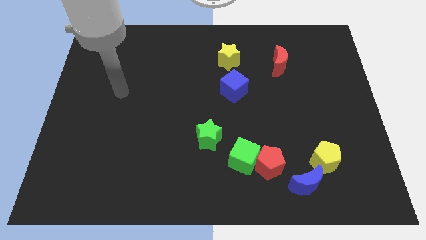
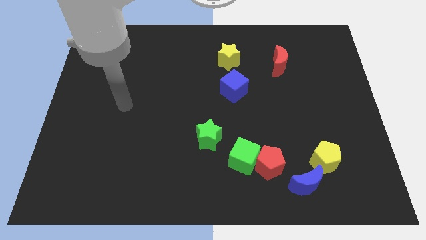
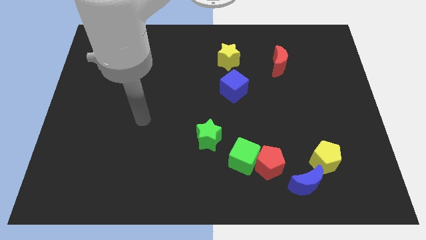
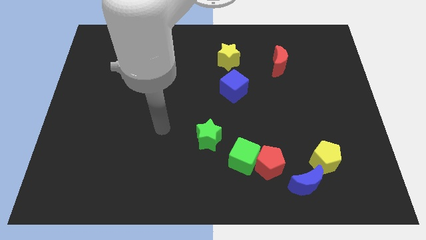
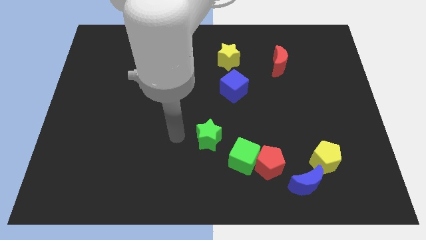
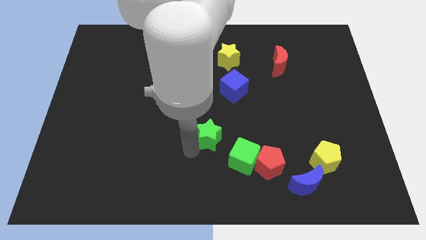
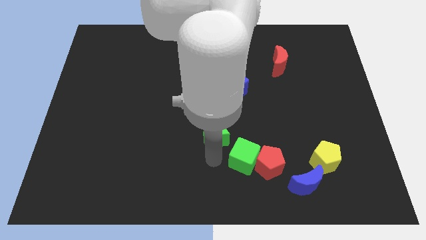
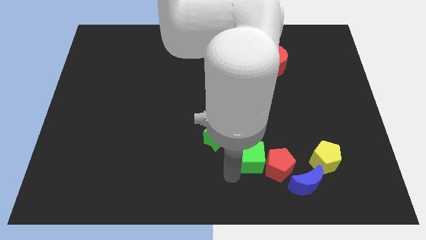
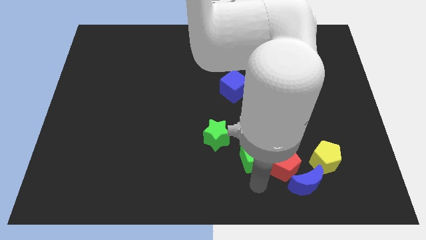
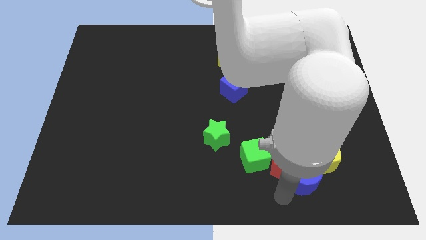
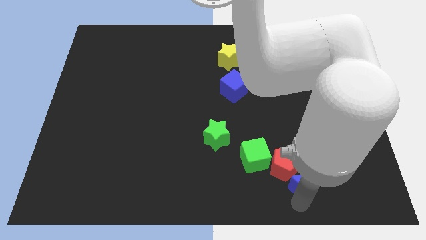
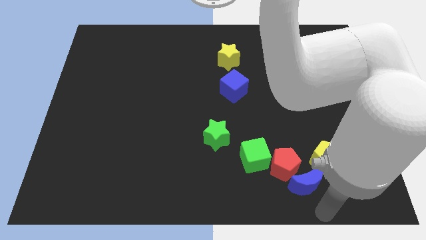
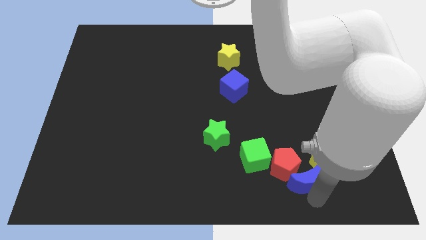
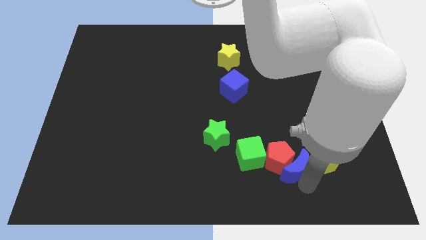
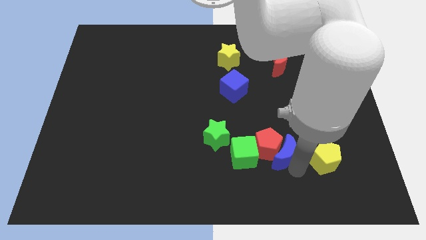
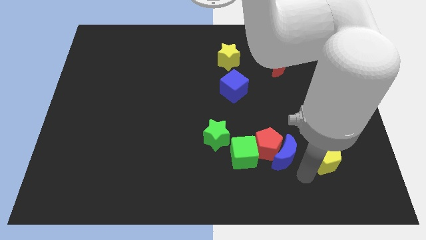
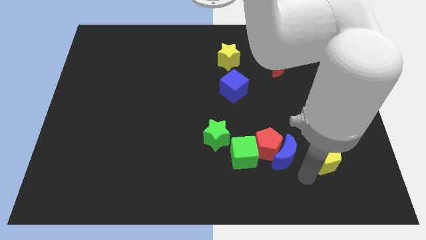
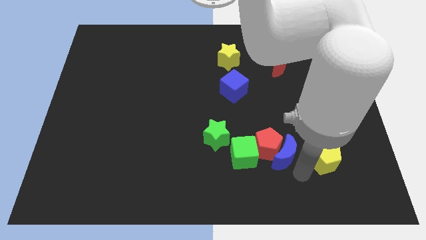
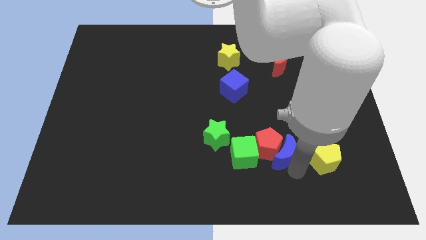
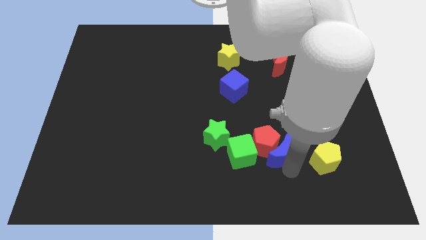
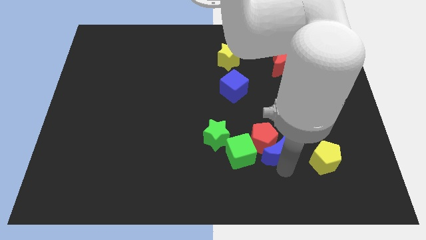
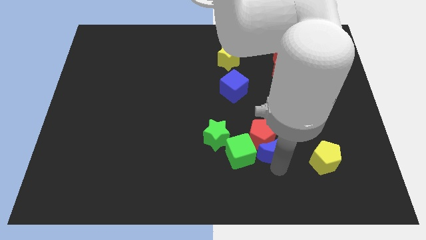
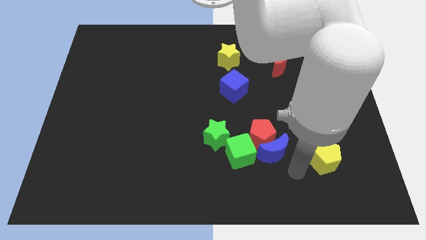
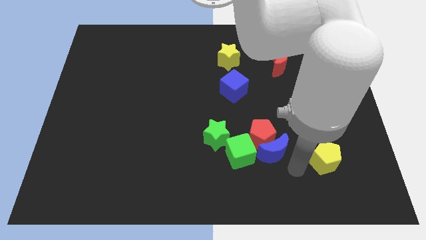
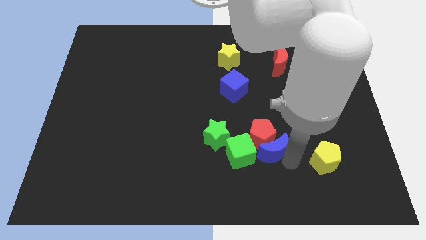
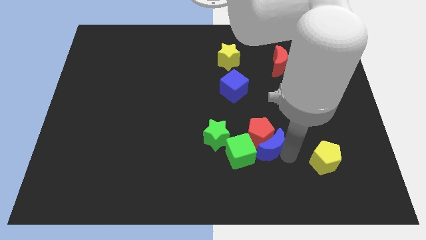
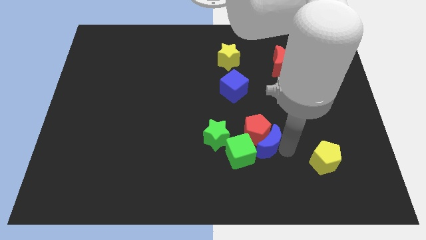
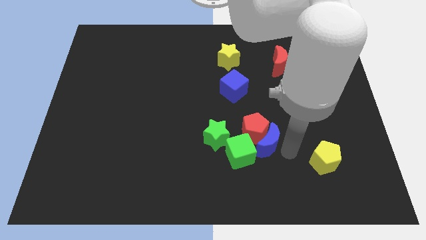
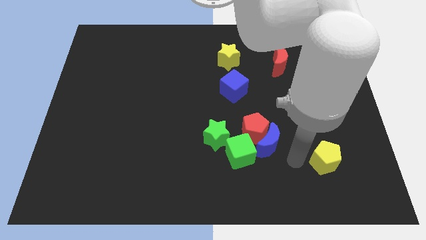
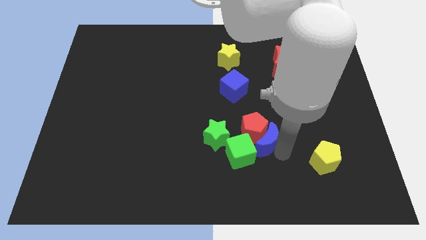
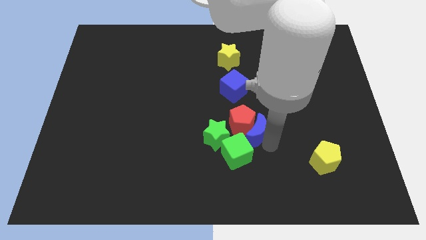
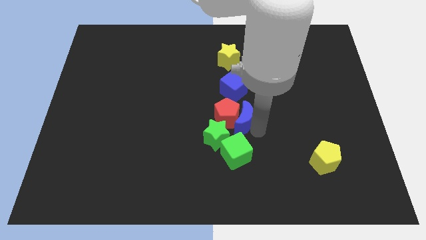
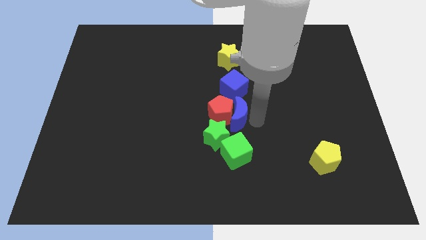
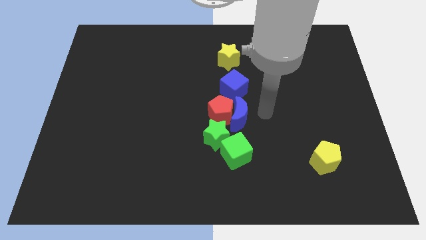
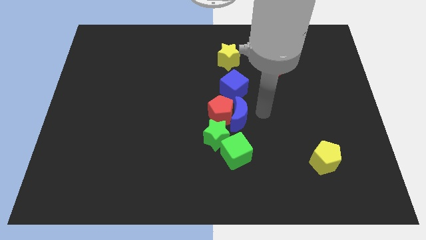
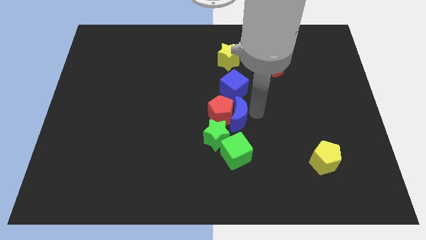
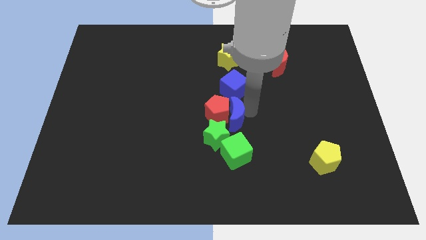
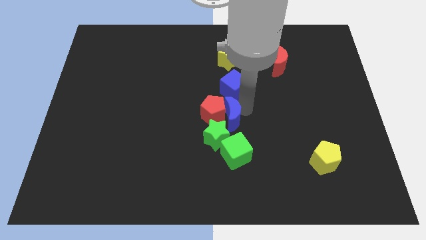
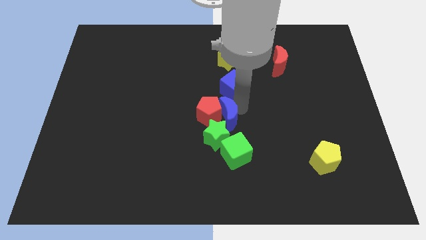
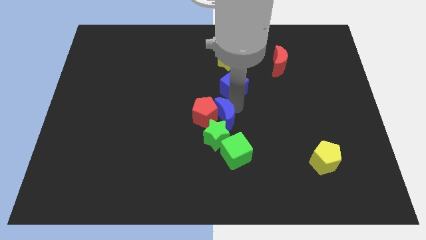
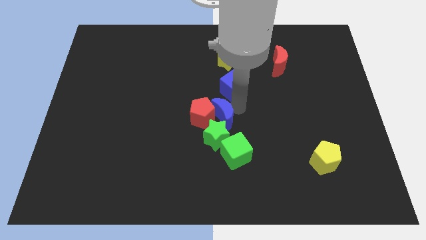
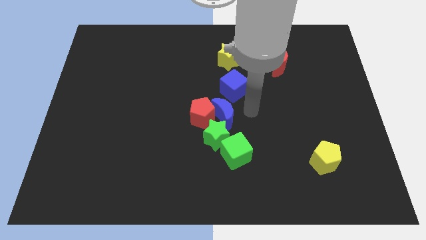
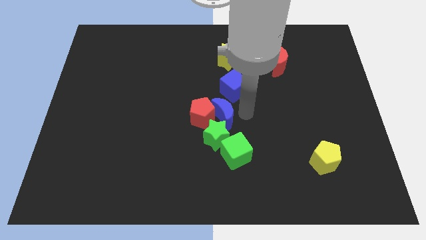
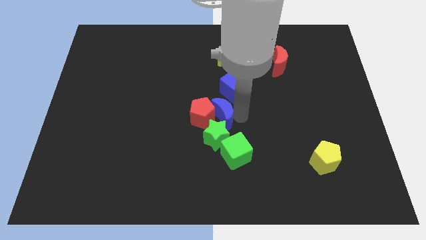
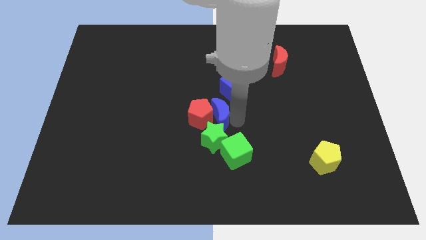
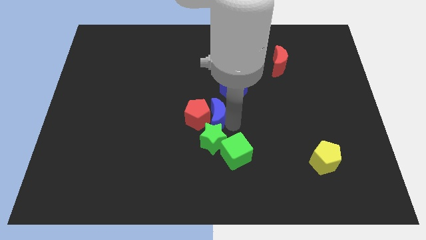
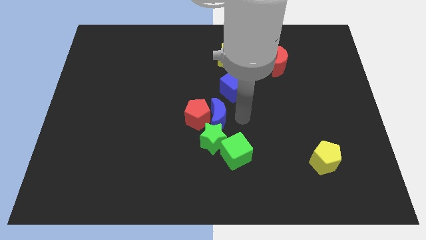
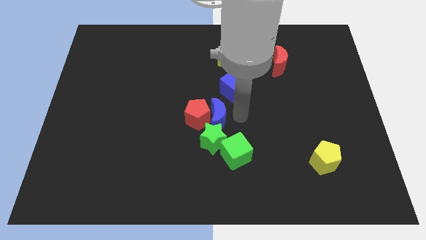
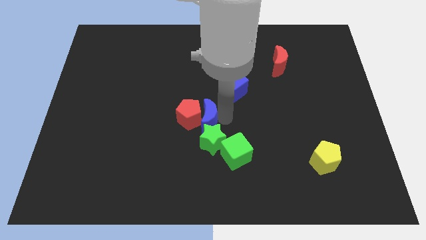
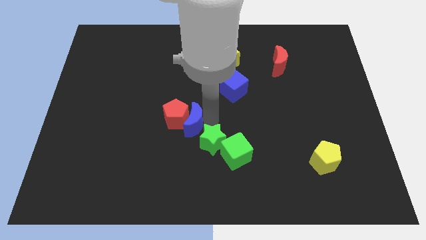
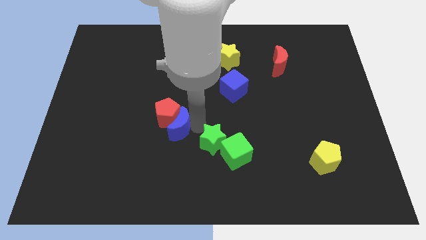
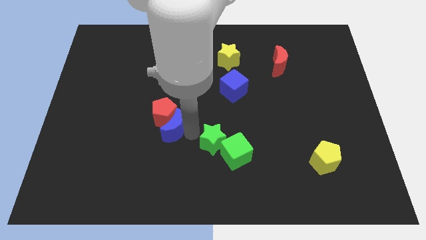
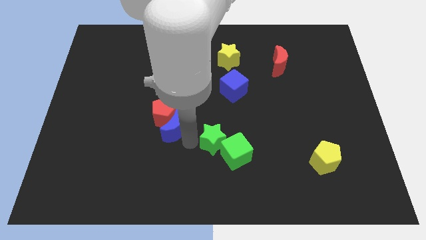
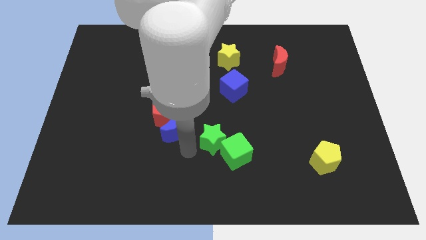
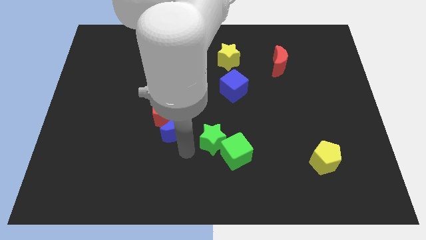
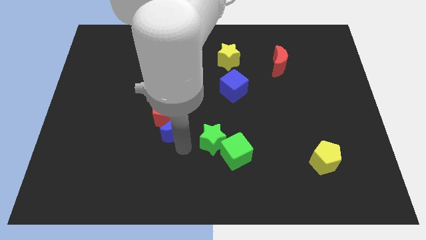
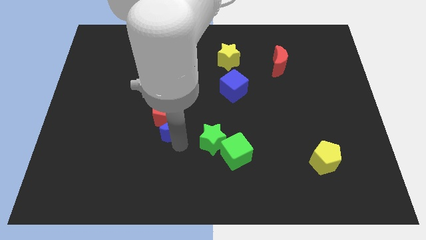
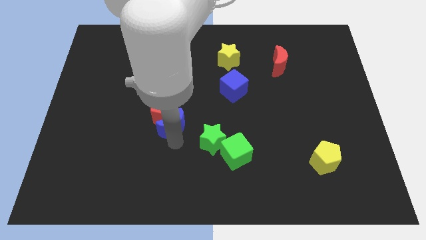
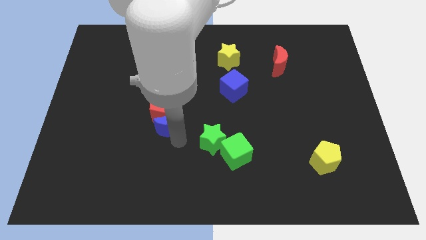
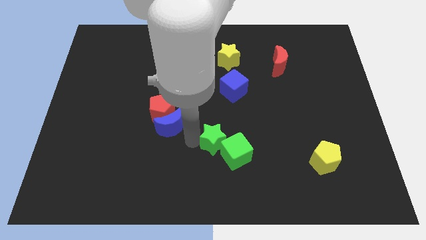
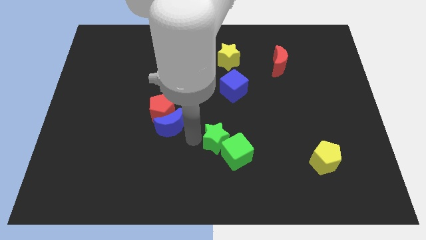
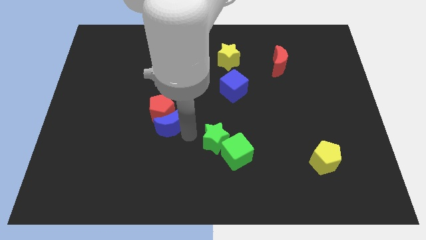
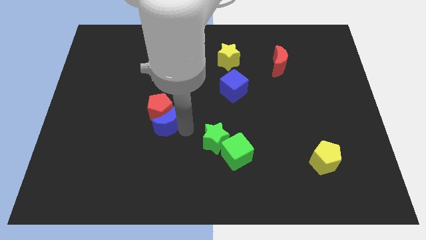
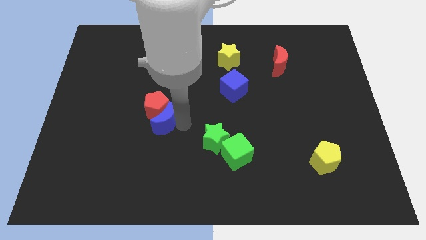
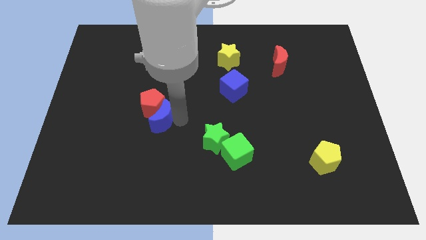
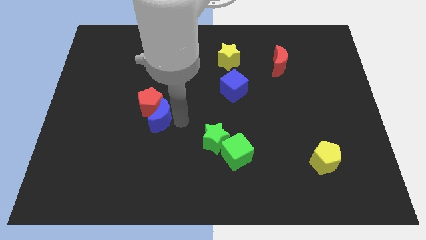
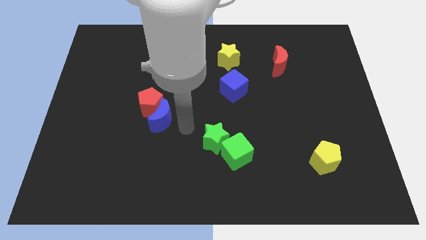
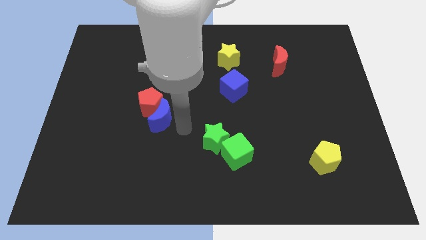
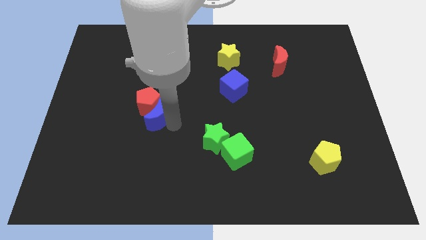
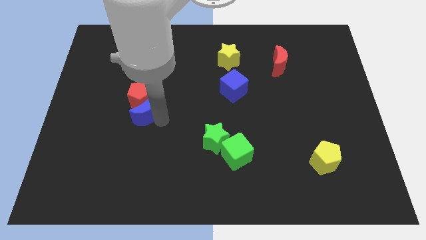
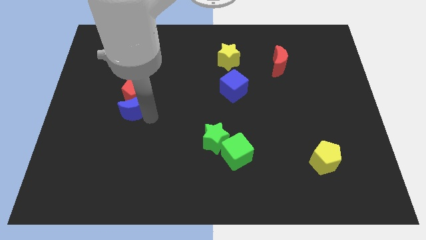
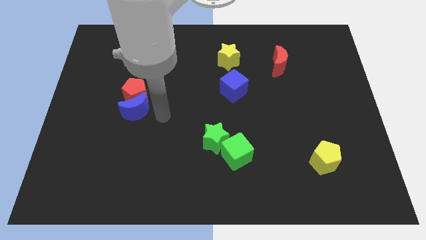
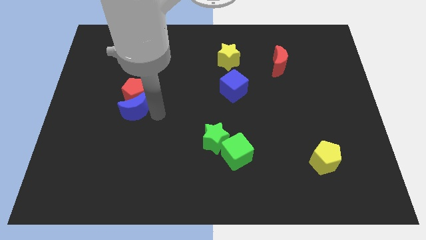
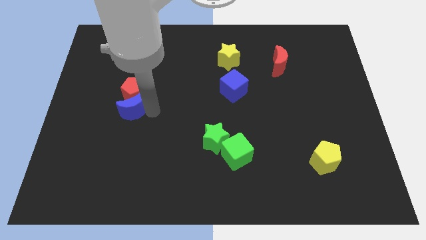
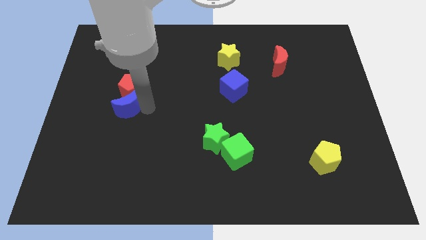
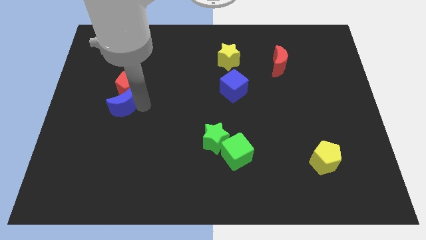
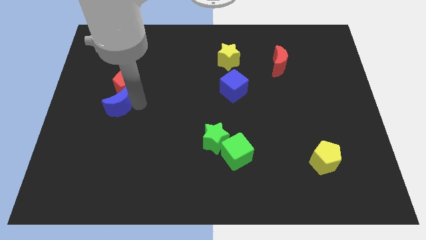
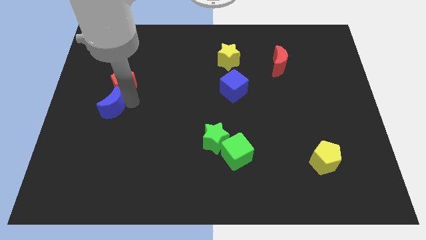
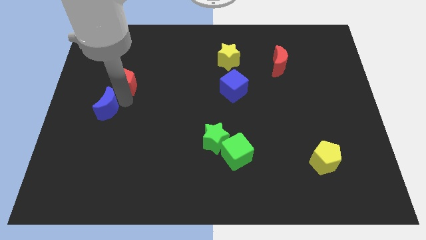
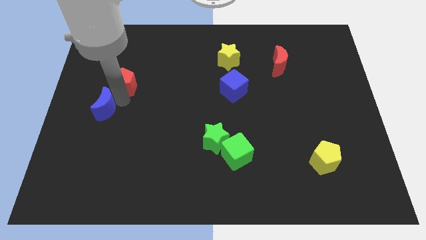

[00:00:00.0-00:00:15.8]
push the blue moon to the left side
